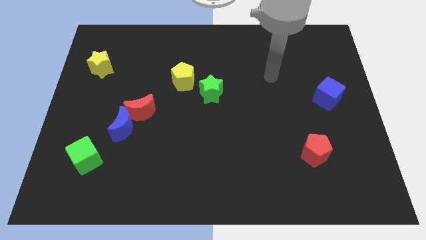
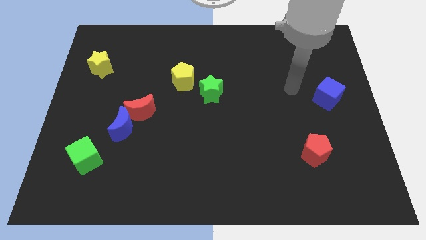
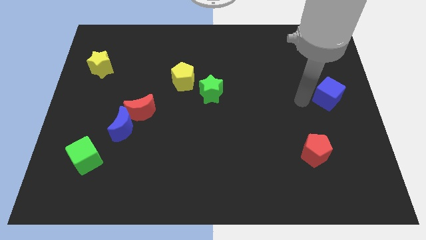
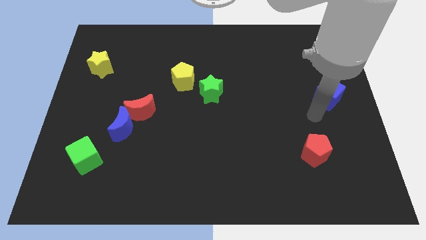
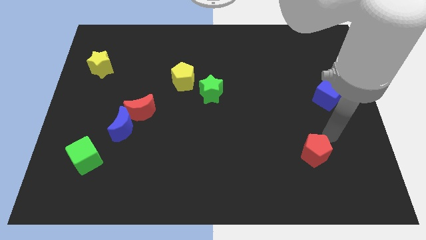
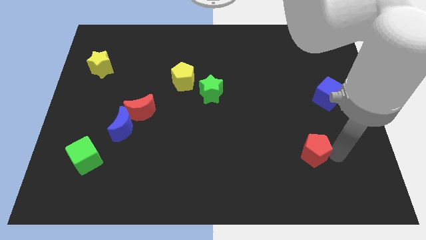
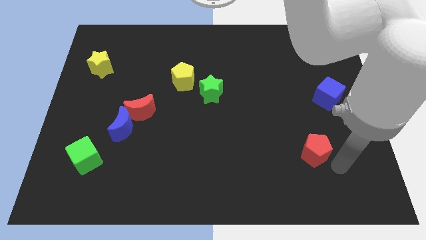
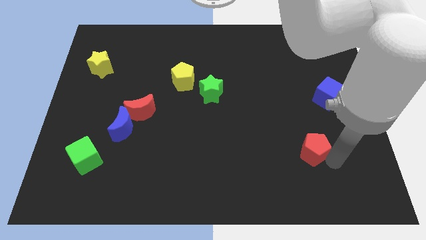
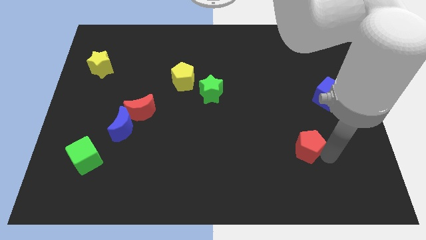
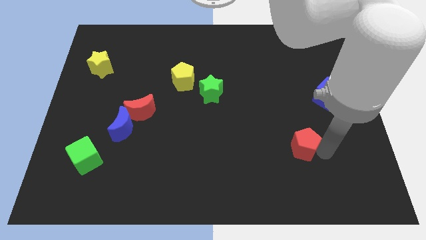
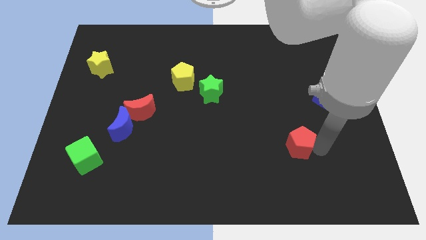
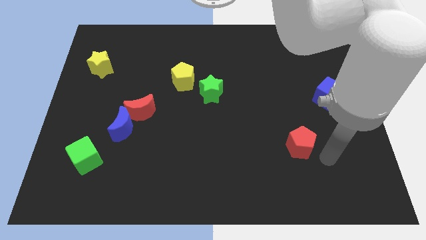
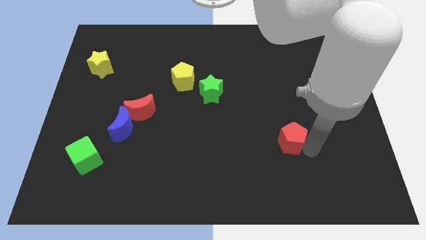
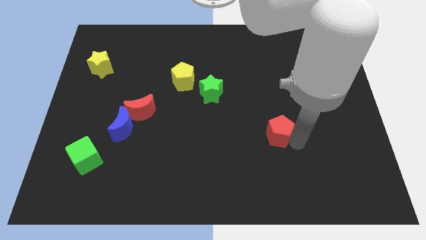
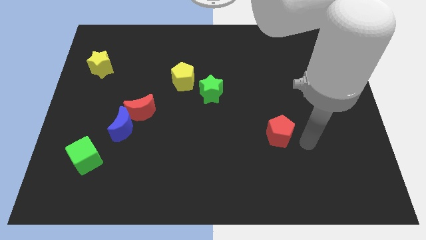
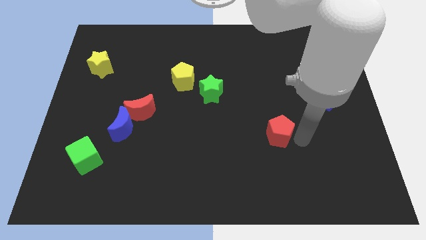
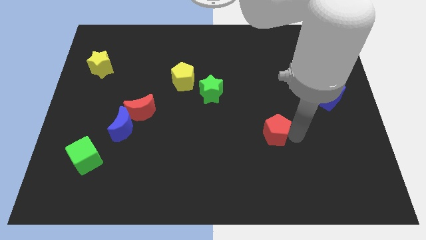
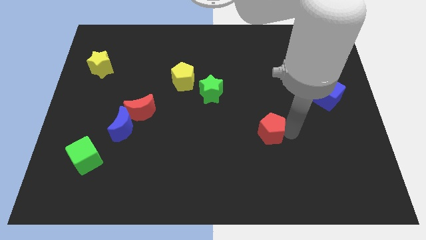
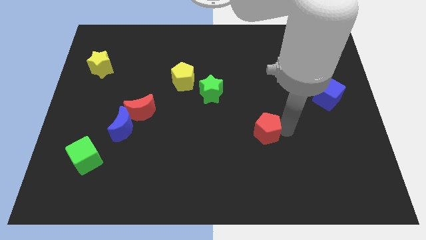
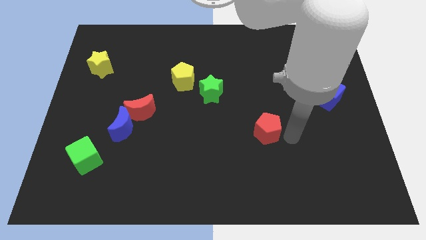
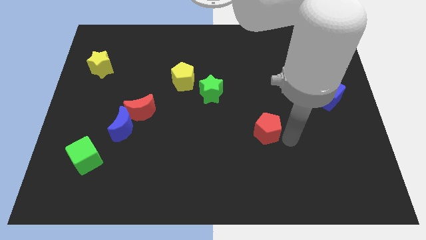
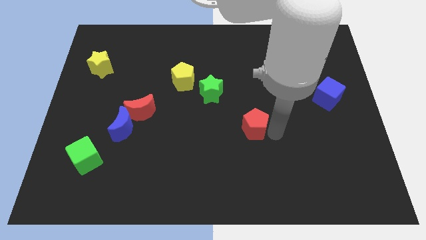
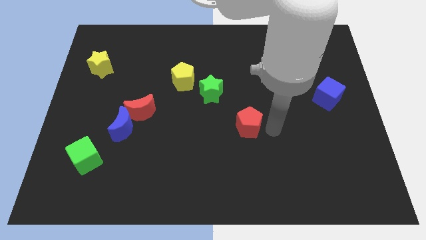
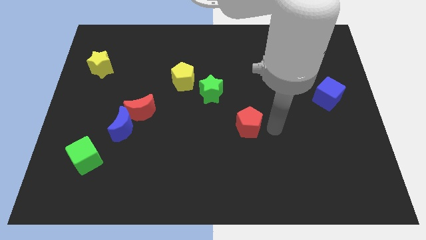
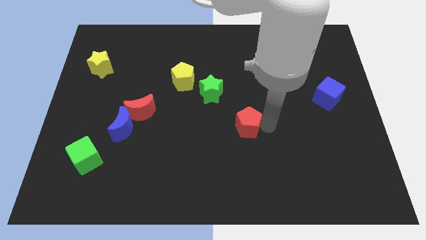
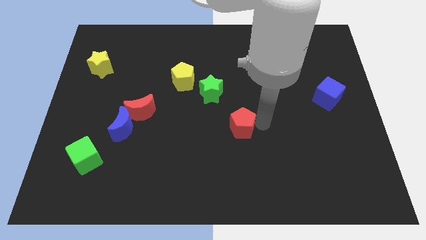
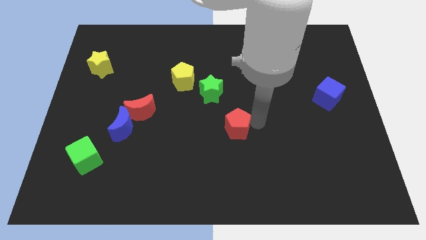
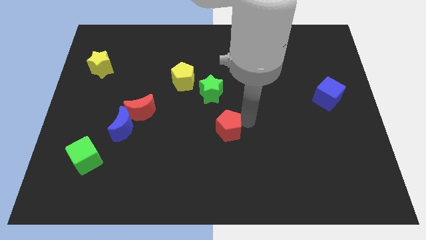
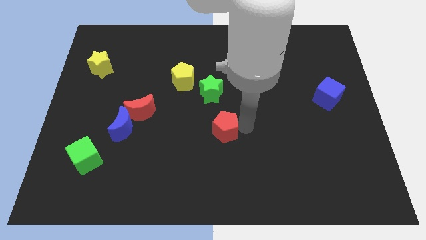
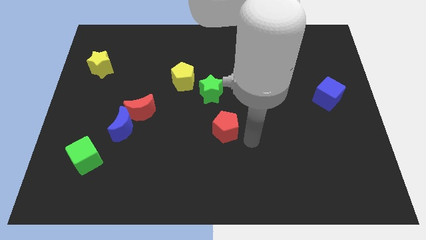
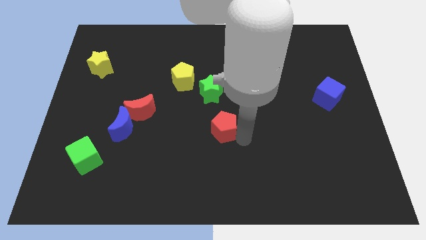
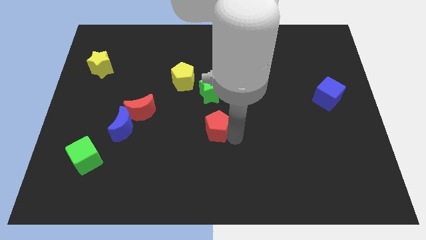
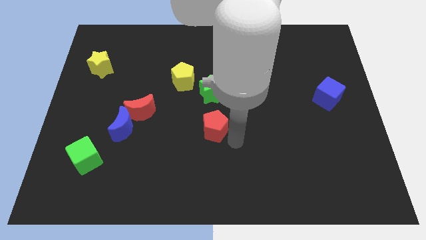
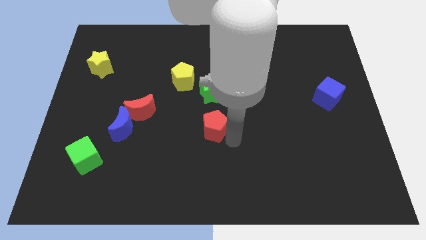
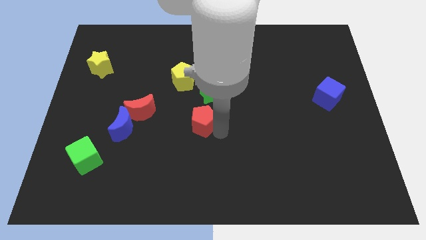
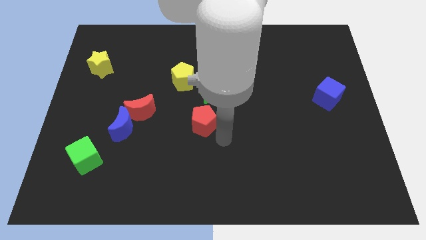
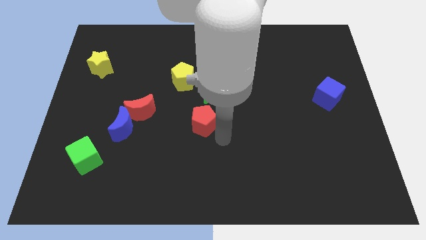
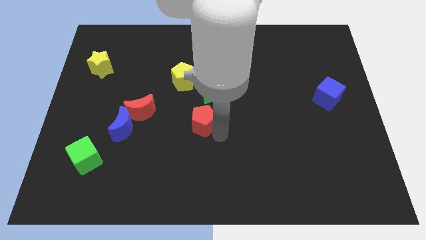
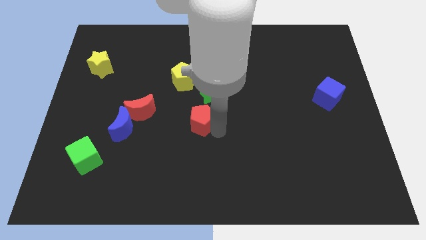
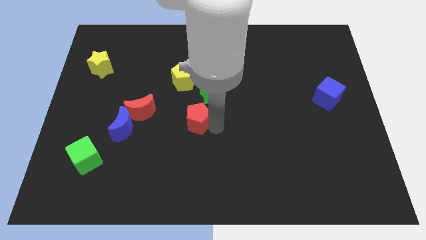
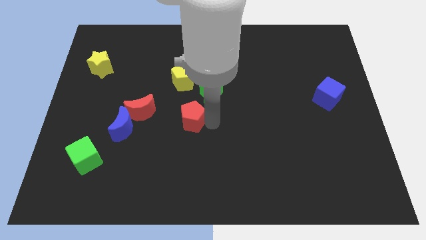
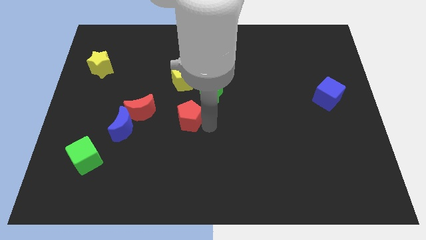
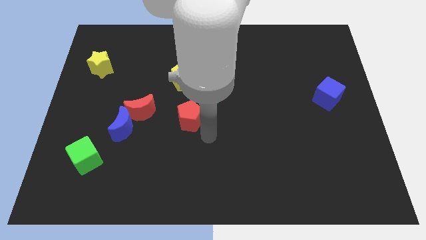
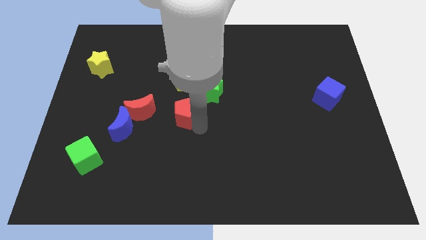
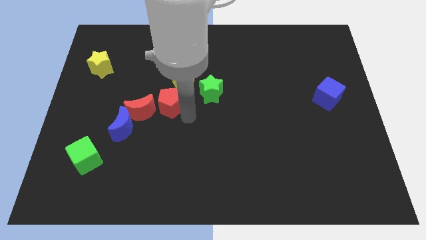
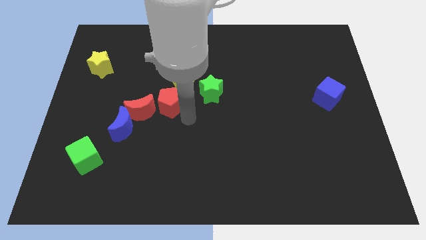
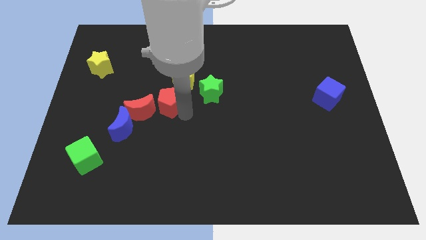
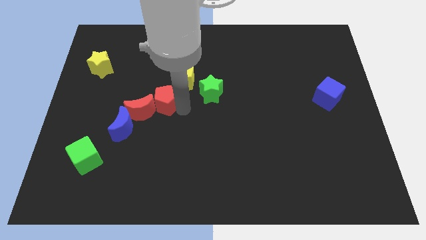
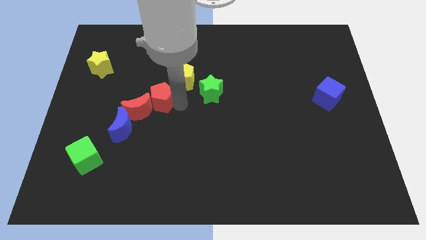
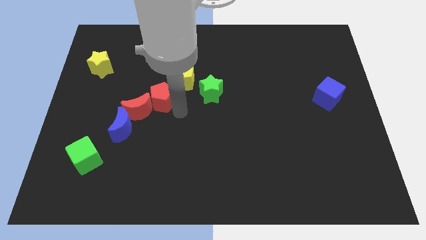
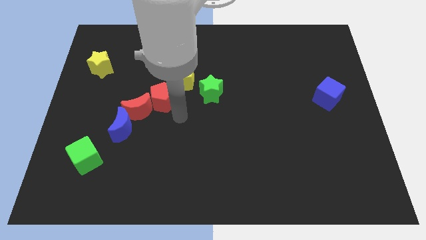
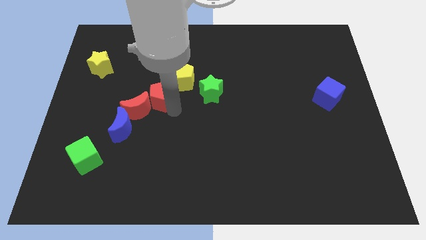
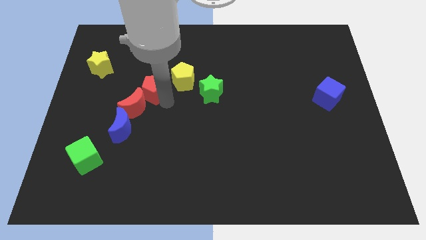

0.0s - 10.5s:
push the red pentagon left of the yellow pentagon

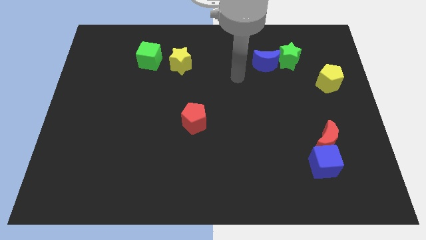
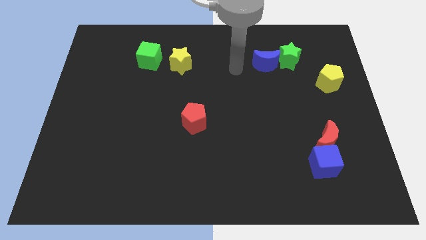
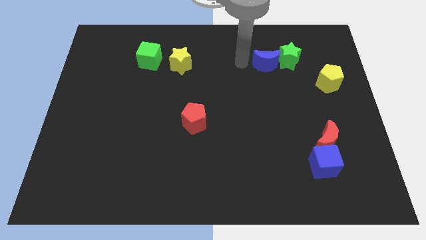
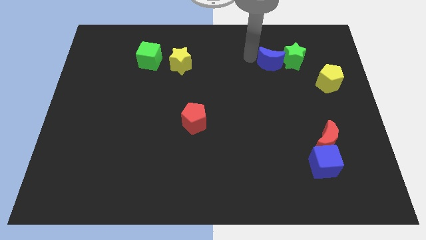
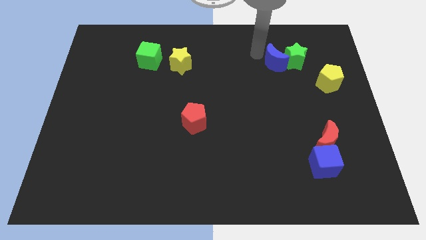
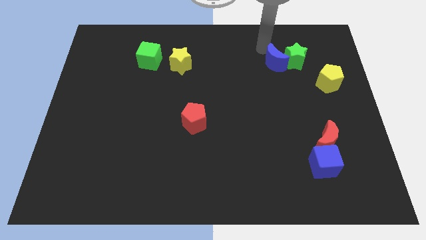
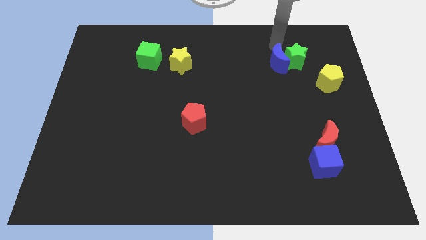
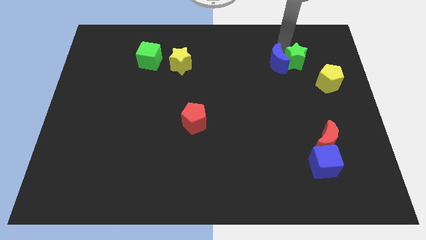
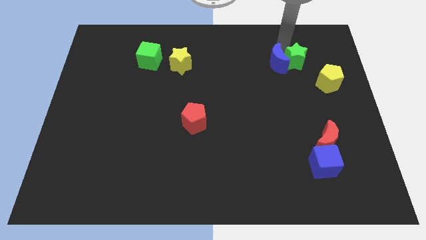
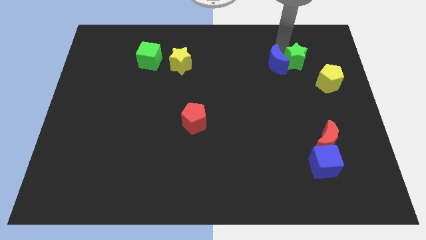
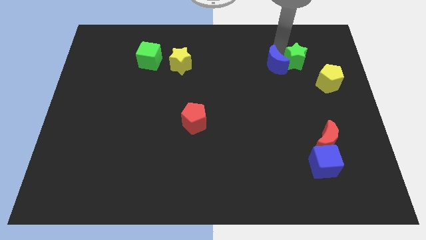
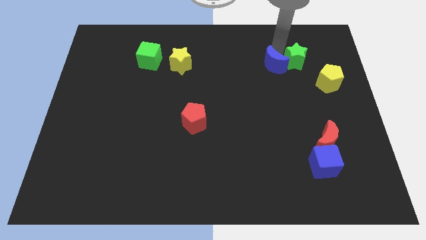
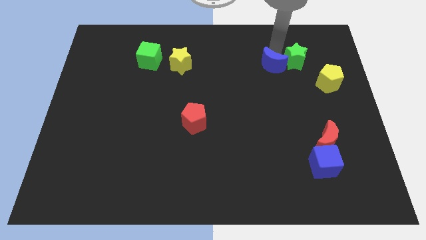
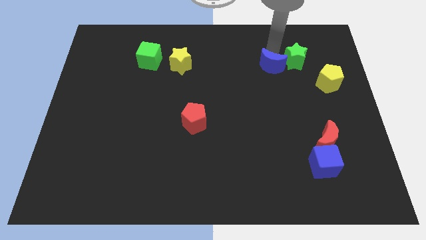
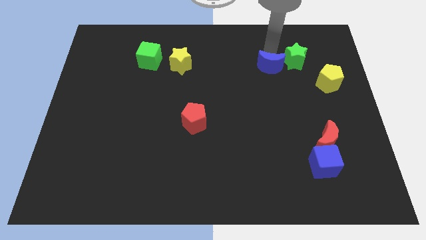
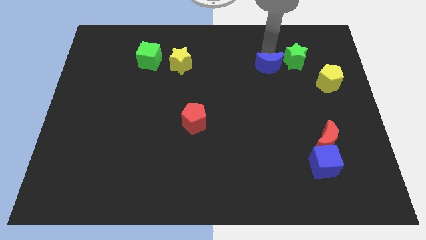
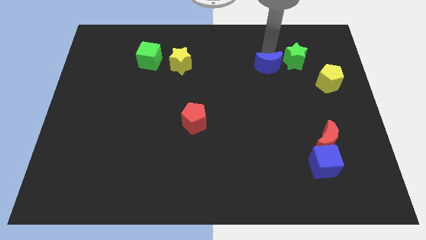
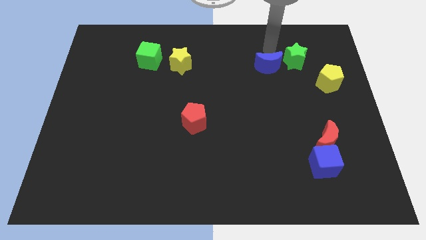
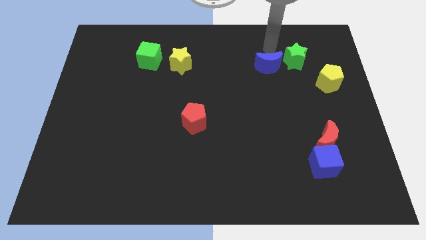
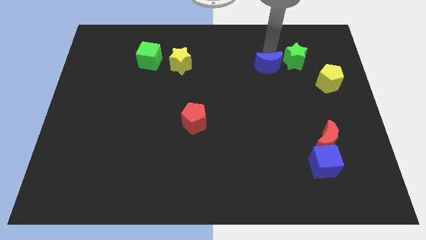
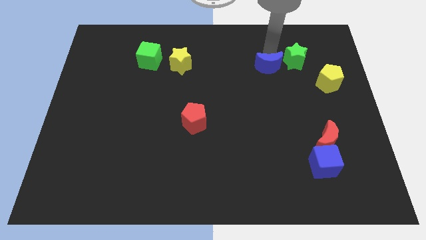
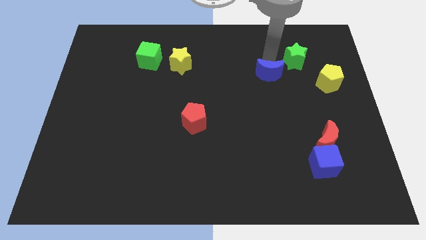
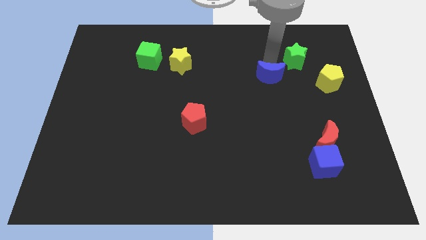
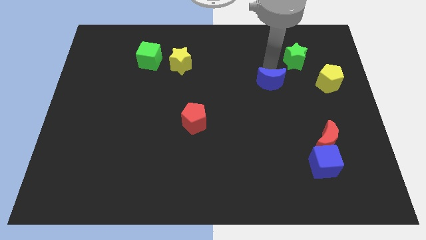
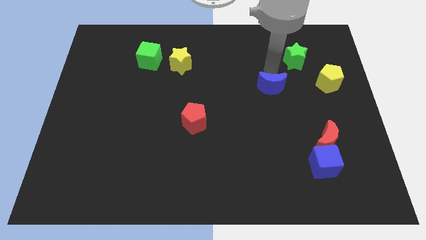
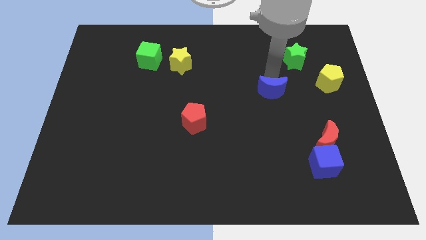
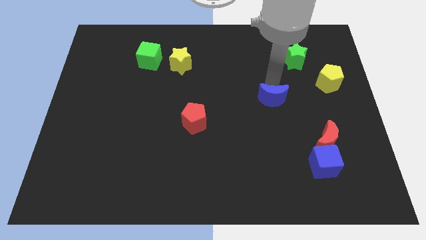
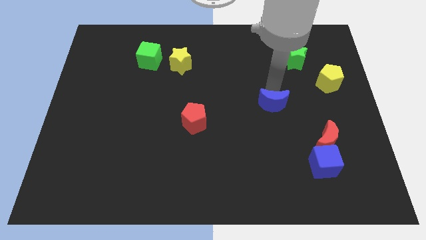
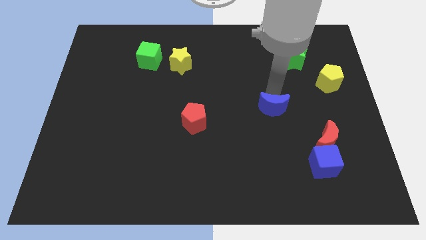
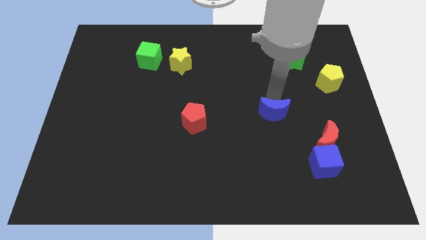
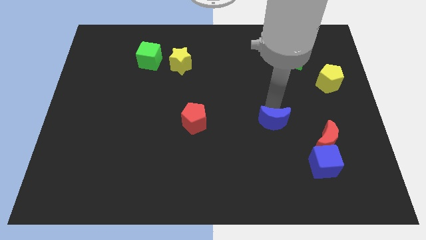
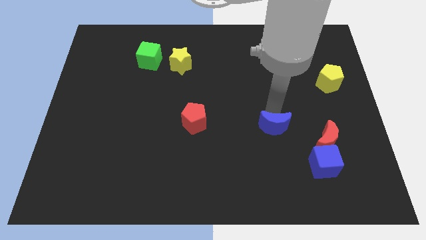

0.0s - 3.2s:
move the blue moon to the left of the red moon
